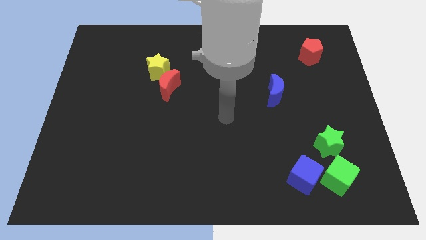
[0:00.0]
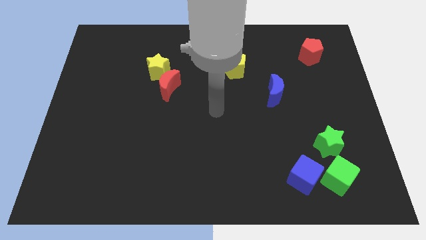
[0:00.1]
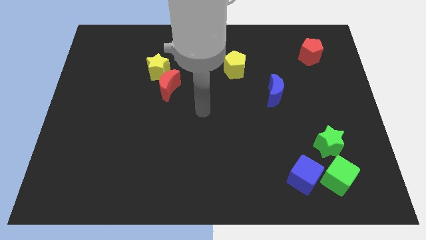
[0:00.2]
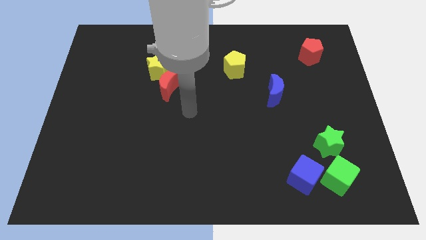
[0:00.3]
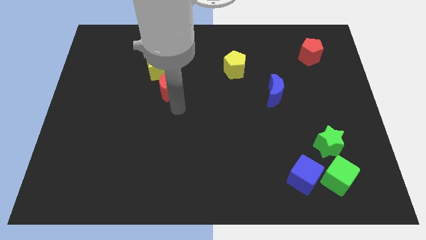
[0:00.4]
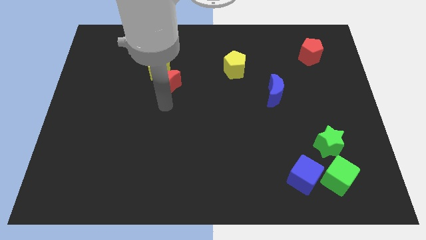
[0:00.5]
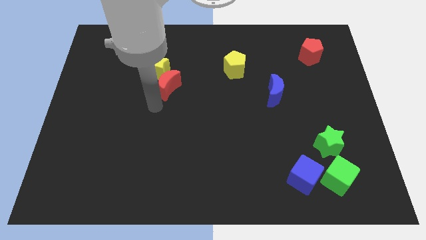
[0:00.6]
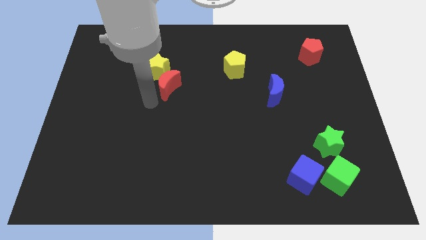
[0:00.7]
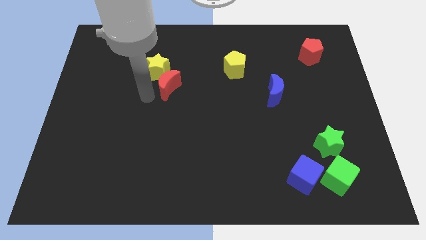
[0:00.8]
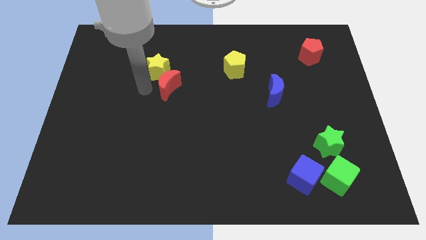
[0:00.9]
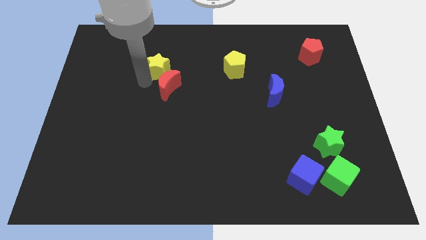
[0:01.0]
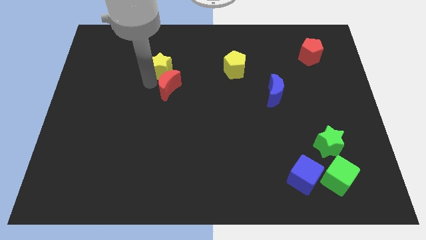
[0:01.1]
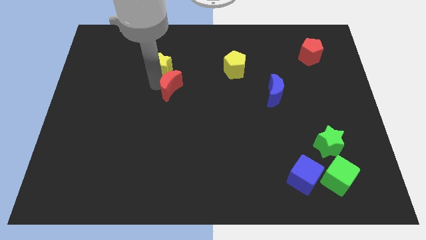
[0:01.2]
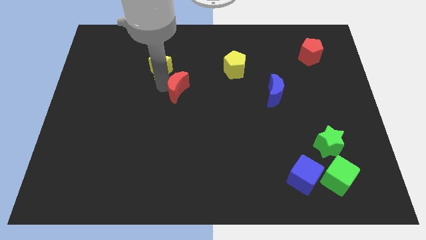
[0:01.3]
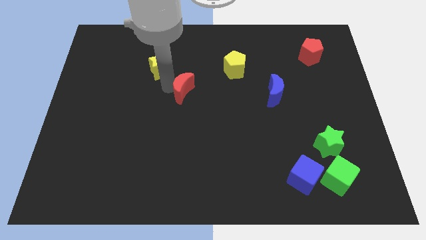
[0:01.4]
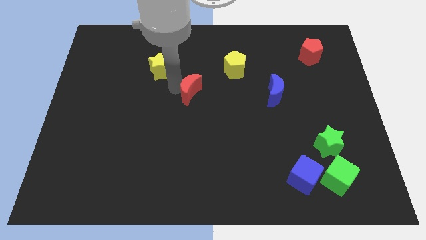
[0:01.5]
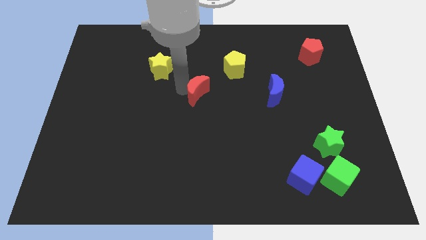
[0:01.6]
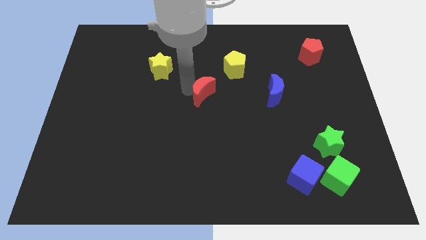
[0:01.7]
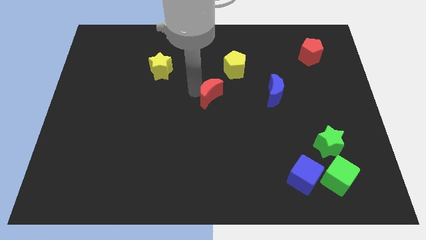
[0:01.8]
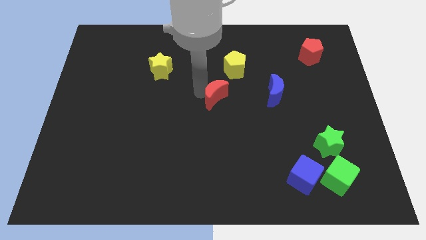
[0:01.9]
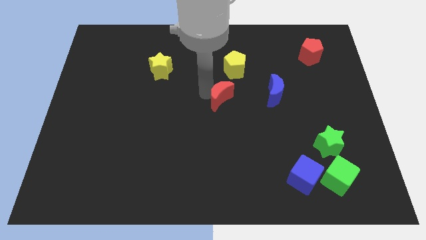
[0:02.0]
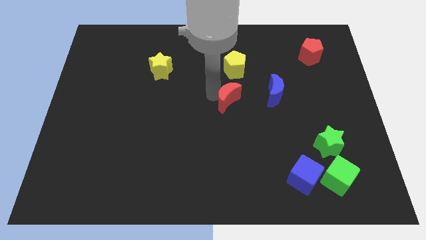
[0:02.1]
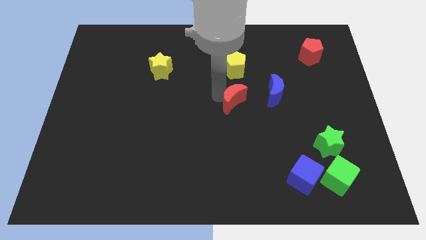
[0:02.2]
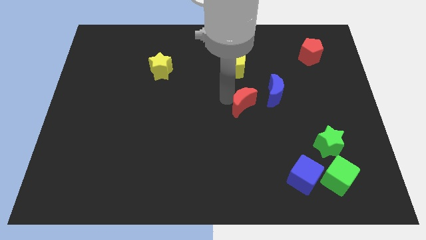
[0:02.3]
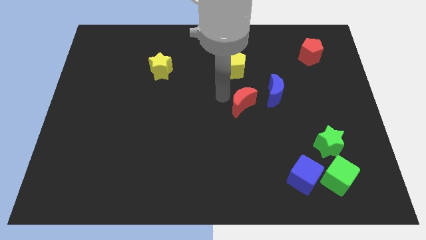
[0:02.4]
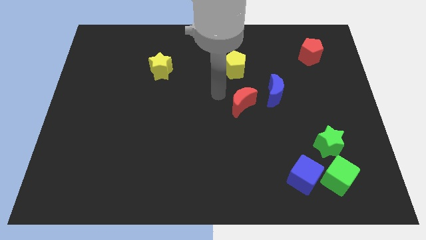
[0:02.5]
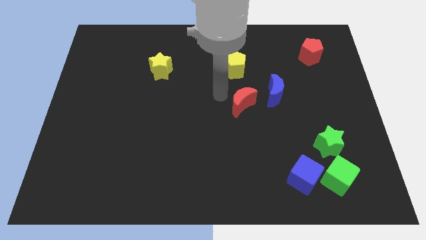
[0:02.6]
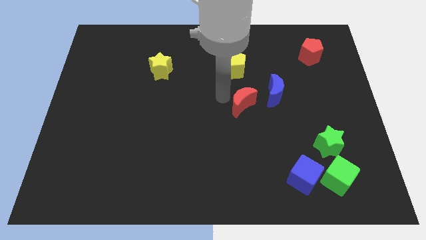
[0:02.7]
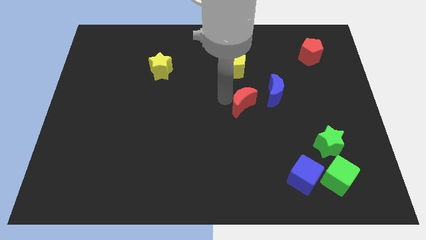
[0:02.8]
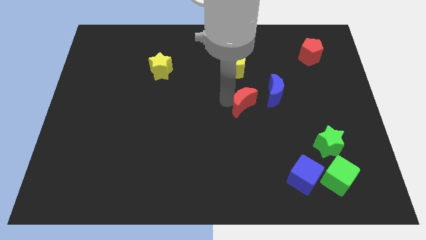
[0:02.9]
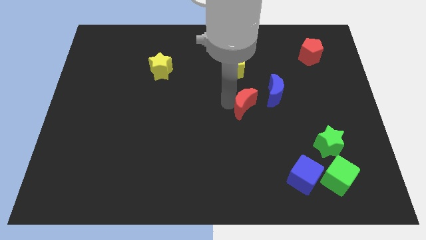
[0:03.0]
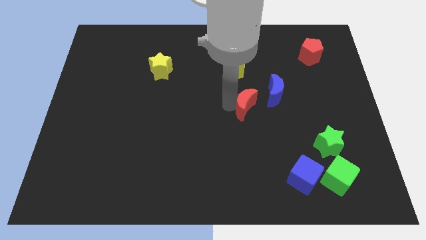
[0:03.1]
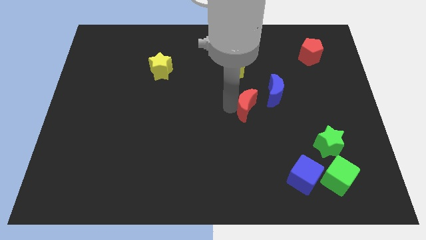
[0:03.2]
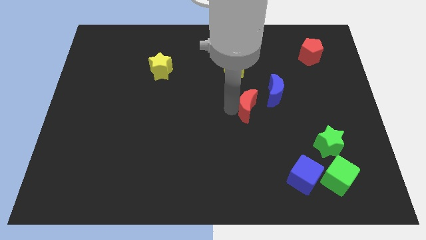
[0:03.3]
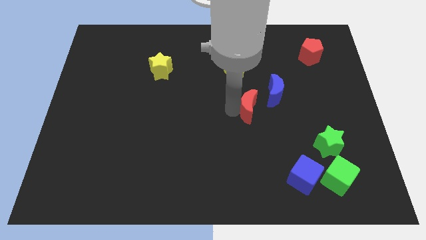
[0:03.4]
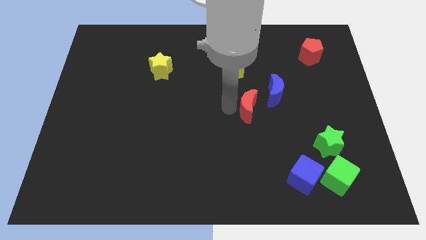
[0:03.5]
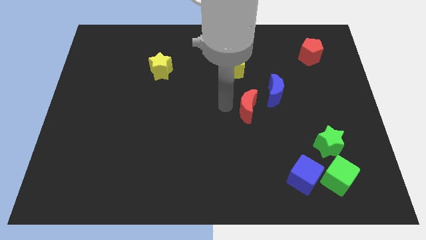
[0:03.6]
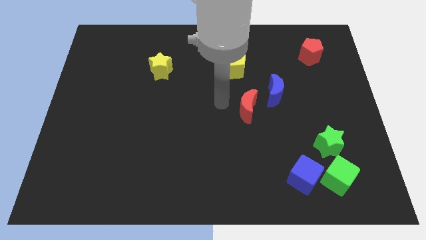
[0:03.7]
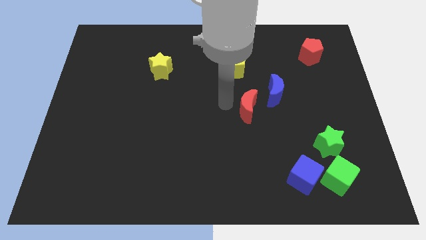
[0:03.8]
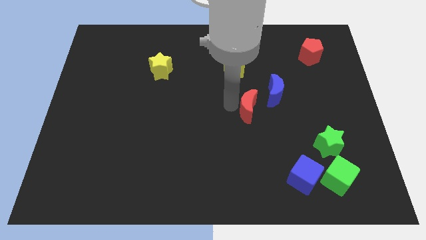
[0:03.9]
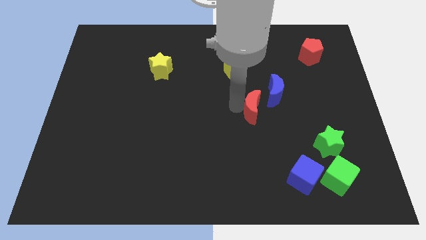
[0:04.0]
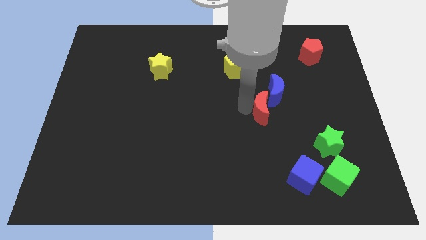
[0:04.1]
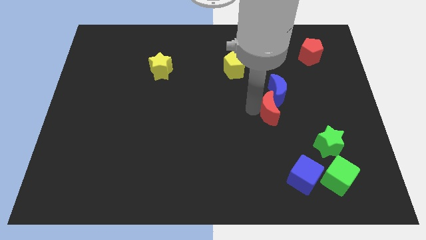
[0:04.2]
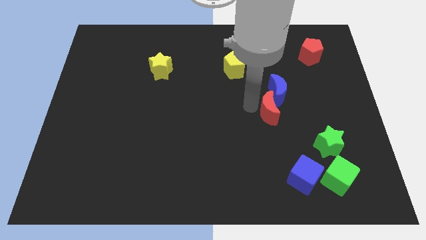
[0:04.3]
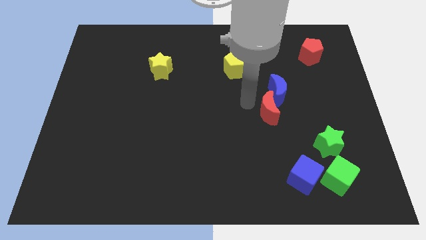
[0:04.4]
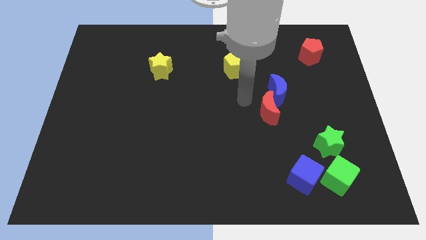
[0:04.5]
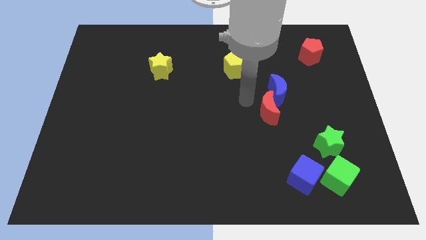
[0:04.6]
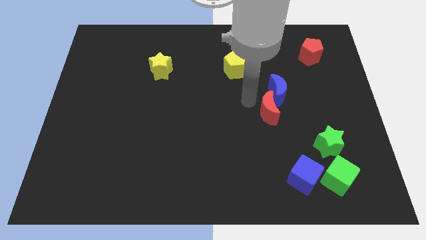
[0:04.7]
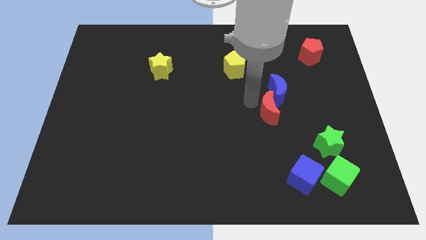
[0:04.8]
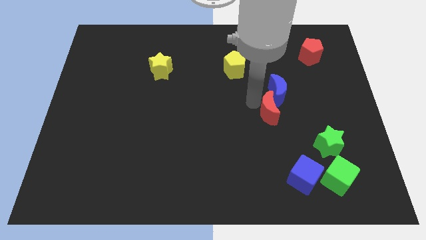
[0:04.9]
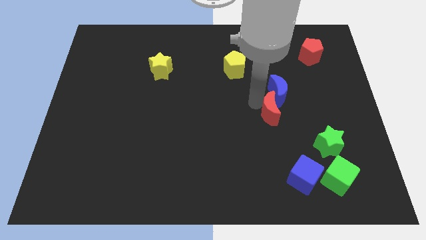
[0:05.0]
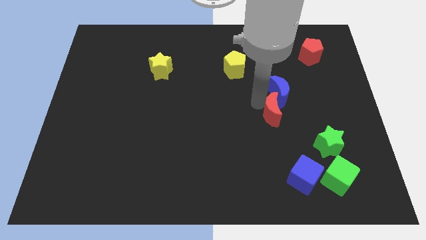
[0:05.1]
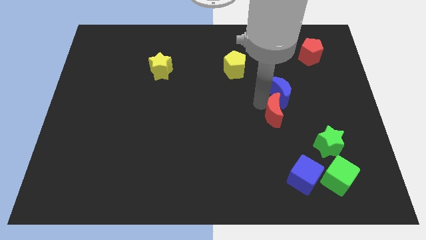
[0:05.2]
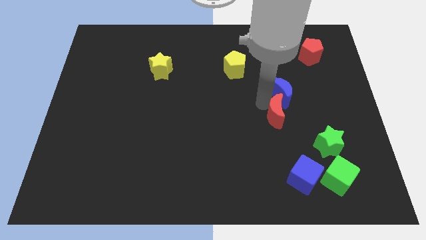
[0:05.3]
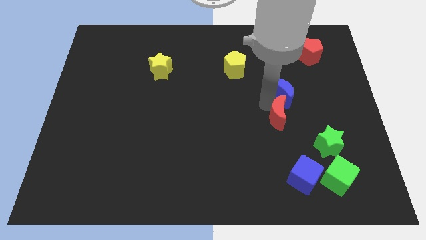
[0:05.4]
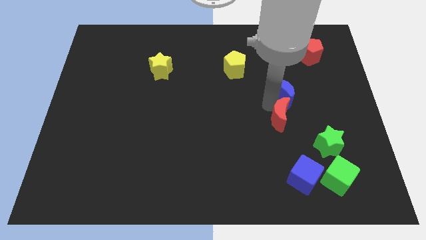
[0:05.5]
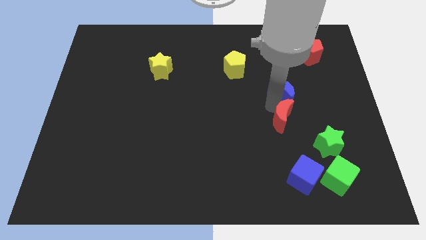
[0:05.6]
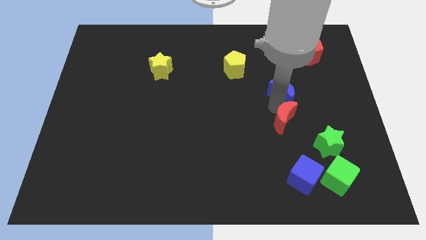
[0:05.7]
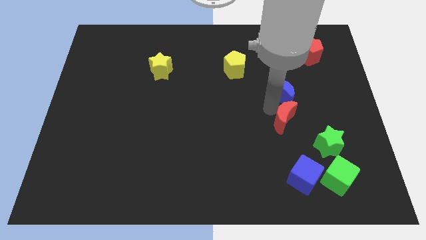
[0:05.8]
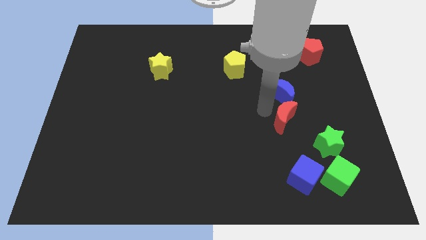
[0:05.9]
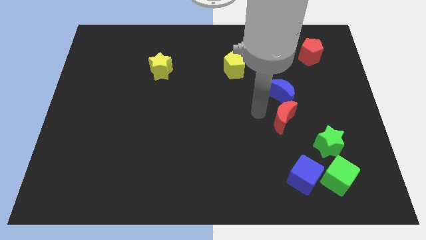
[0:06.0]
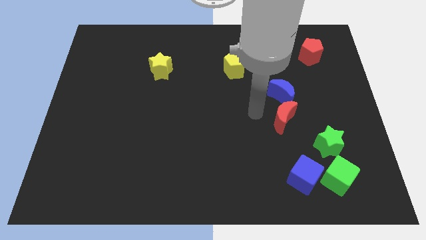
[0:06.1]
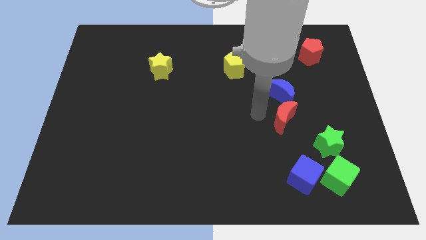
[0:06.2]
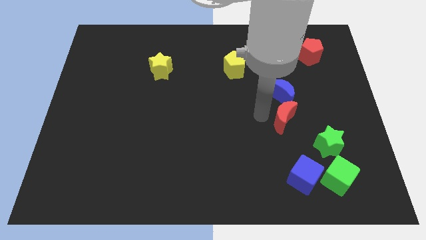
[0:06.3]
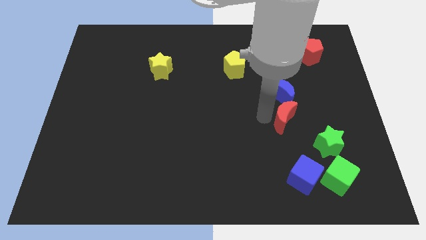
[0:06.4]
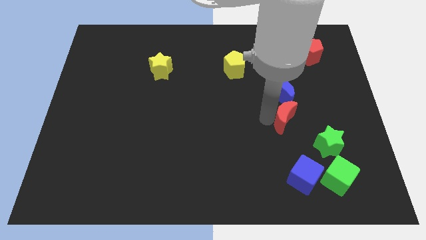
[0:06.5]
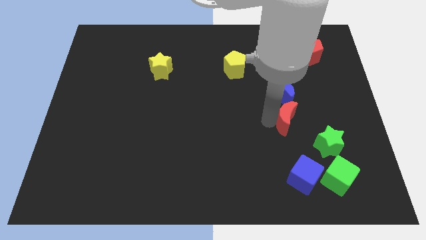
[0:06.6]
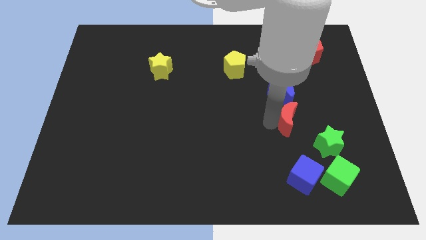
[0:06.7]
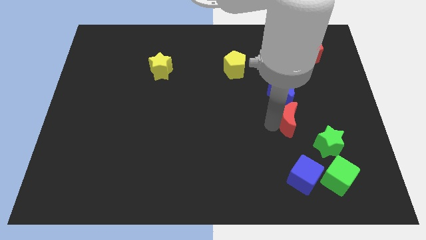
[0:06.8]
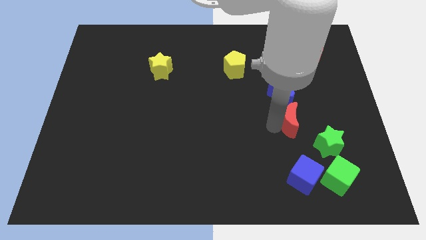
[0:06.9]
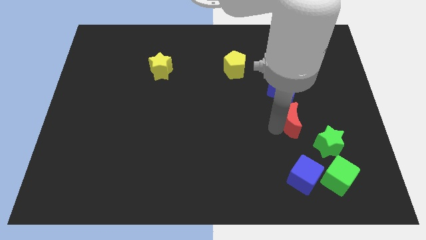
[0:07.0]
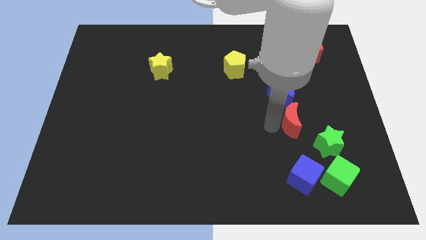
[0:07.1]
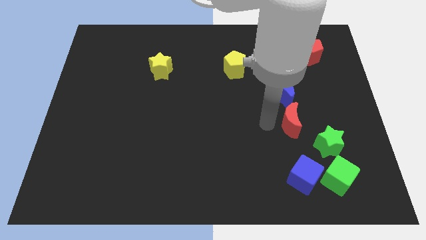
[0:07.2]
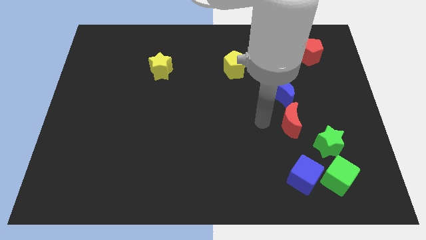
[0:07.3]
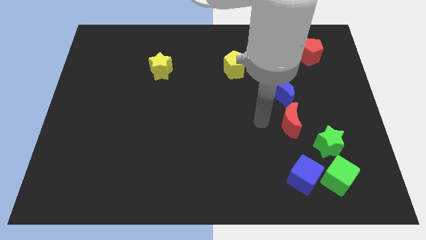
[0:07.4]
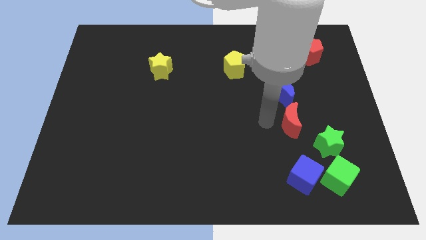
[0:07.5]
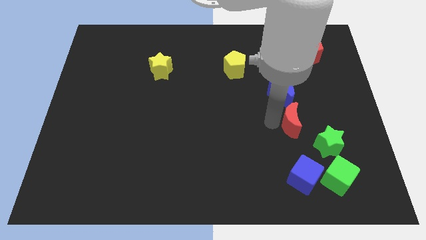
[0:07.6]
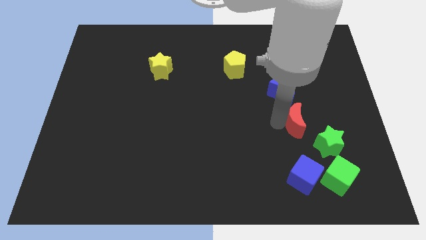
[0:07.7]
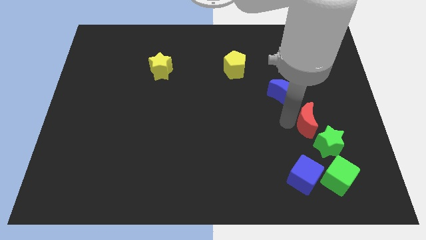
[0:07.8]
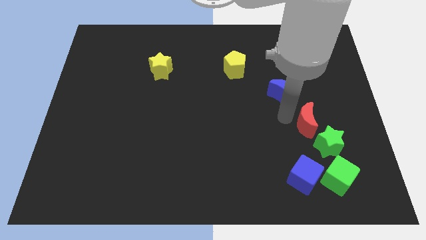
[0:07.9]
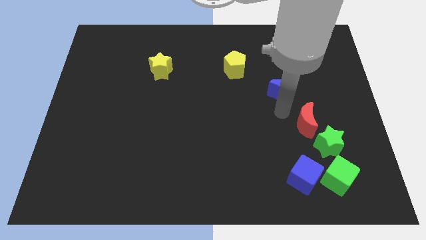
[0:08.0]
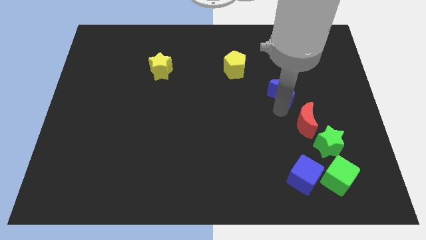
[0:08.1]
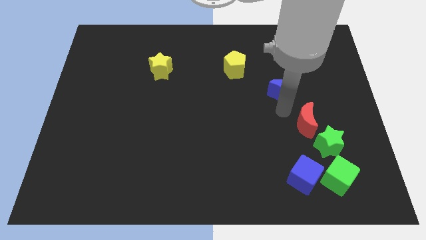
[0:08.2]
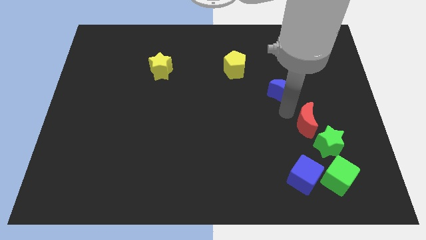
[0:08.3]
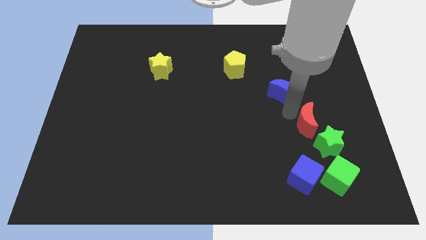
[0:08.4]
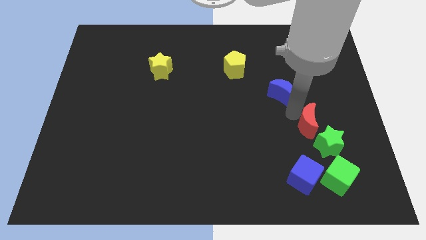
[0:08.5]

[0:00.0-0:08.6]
slide the red moon to the top side of the green cube
